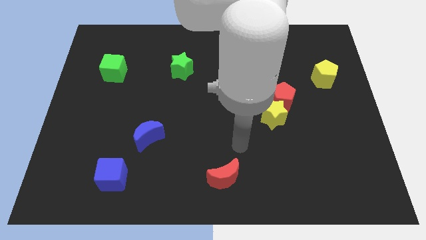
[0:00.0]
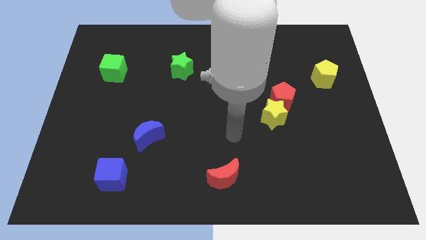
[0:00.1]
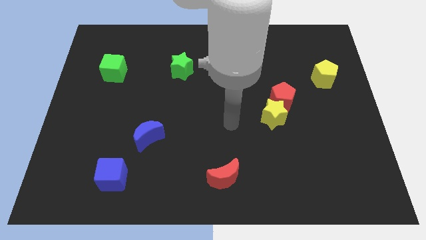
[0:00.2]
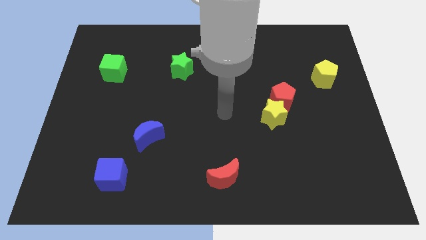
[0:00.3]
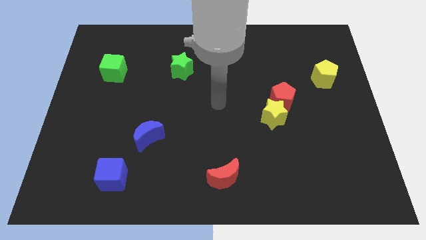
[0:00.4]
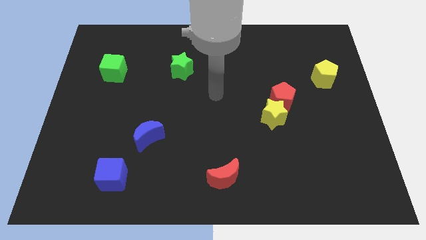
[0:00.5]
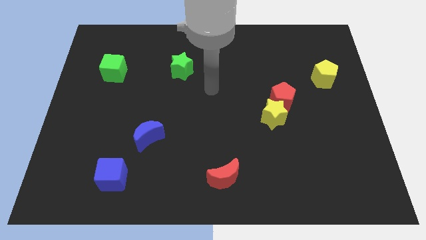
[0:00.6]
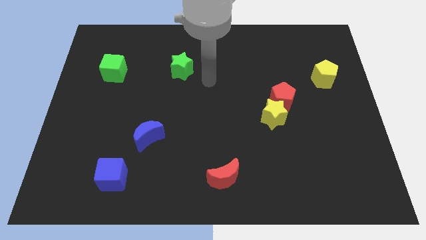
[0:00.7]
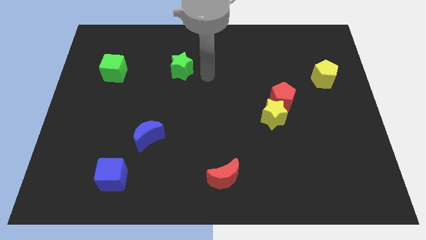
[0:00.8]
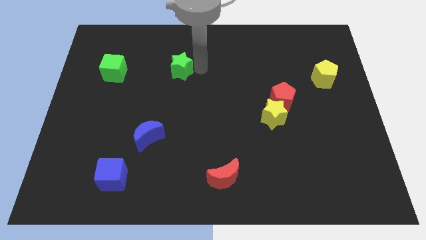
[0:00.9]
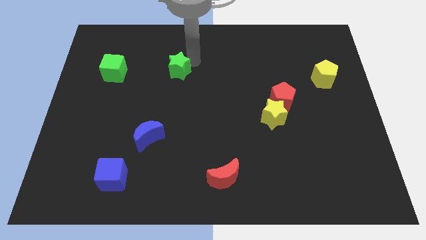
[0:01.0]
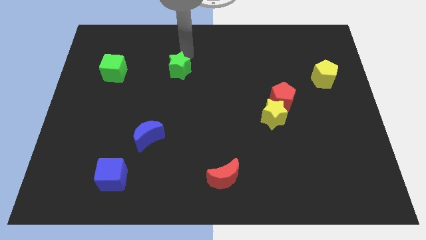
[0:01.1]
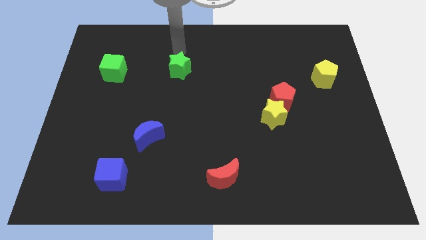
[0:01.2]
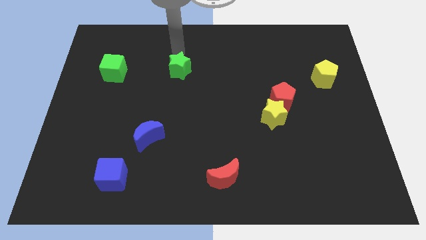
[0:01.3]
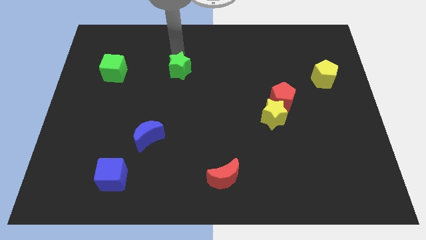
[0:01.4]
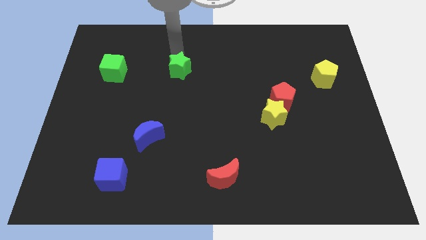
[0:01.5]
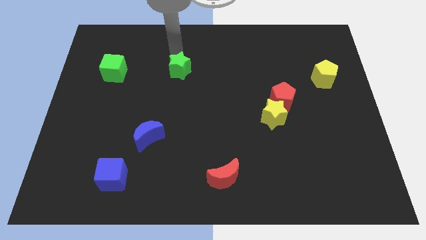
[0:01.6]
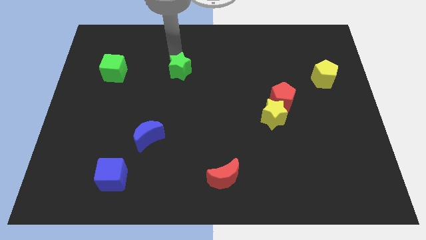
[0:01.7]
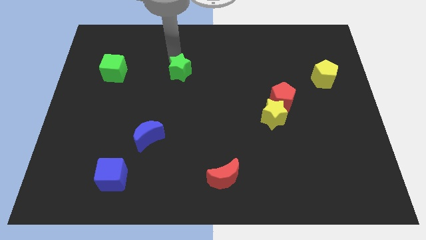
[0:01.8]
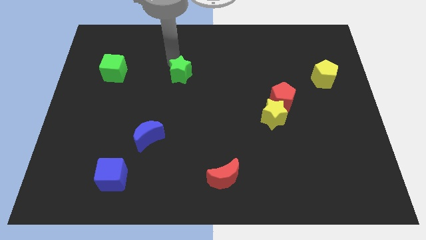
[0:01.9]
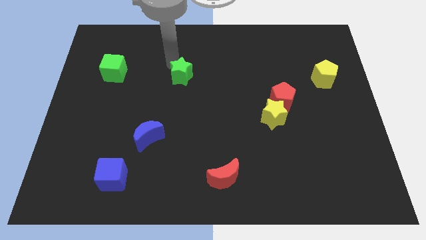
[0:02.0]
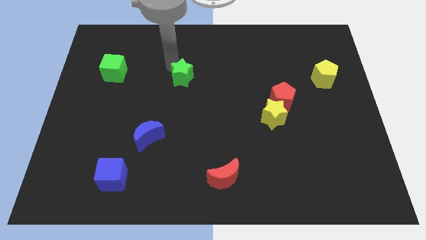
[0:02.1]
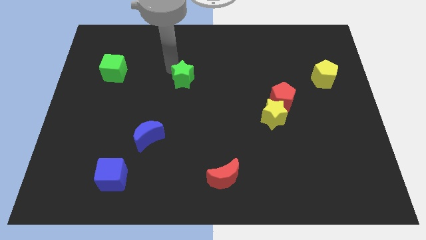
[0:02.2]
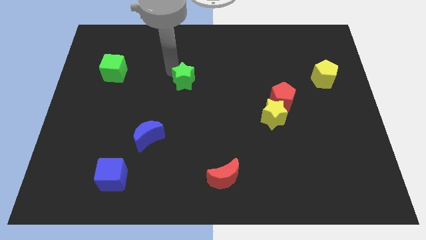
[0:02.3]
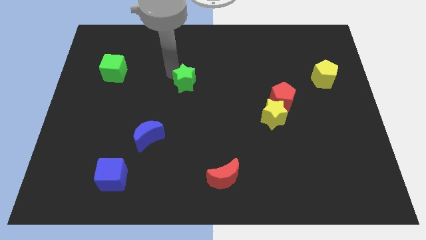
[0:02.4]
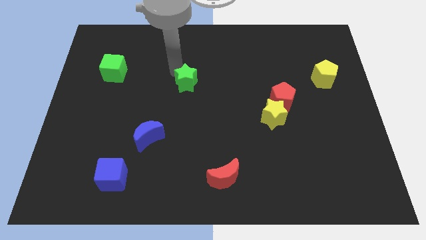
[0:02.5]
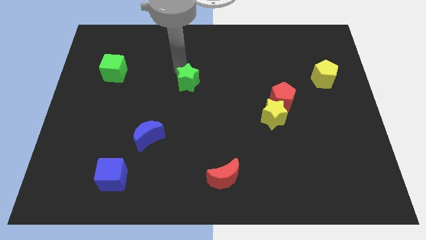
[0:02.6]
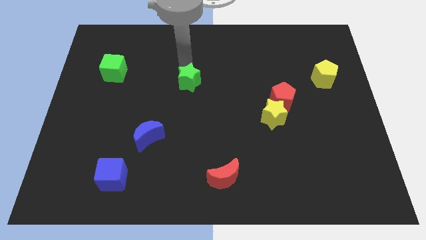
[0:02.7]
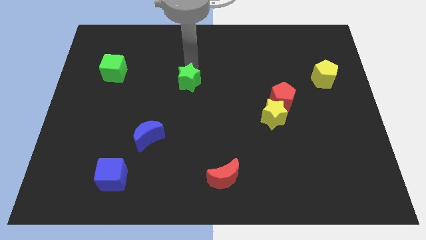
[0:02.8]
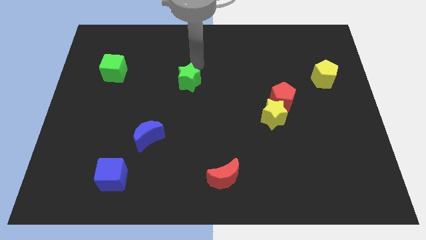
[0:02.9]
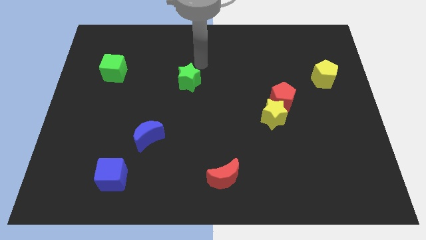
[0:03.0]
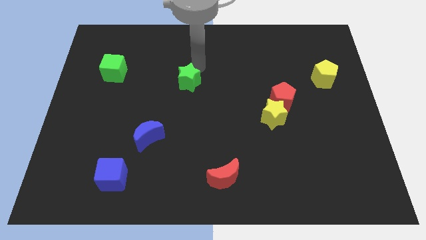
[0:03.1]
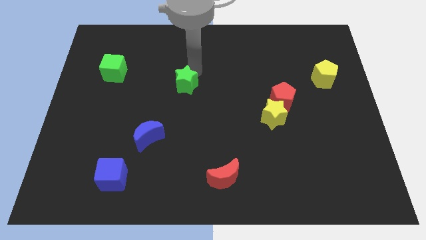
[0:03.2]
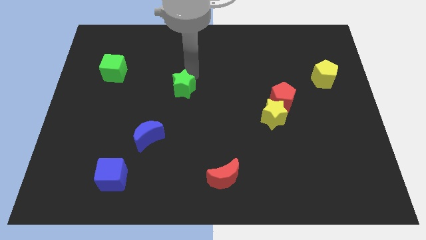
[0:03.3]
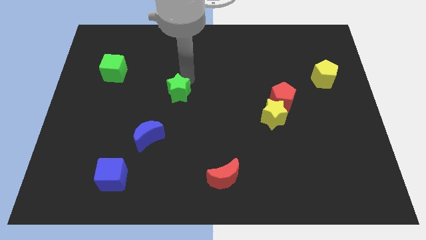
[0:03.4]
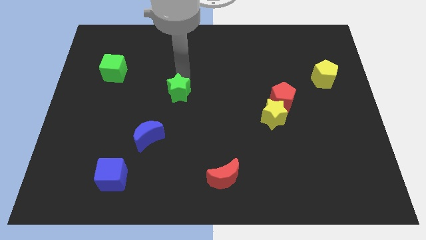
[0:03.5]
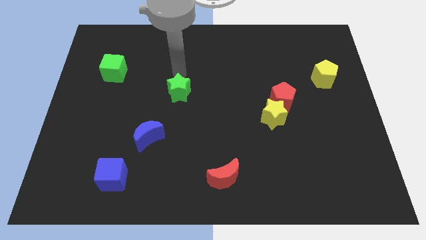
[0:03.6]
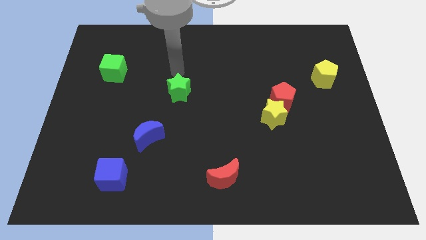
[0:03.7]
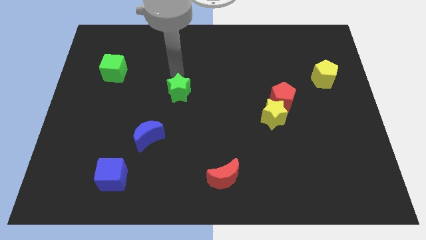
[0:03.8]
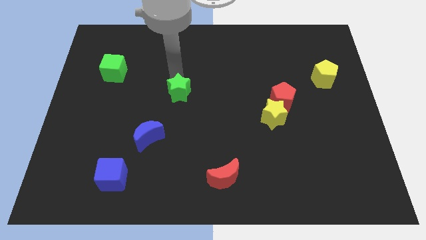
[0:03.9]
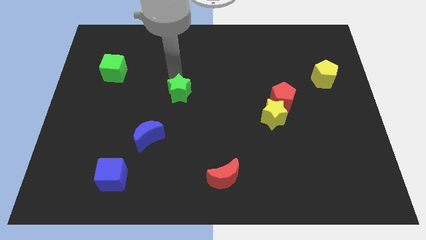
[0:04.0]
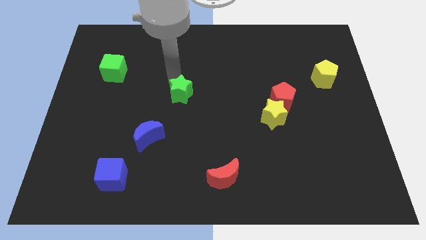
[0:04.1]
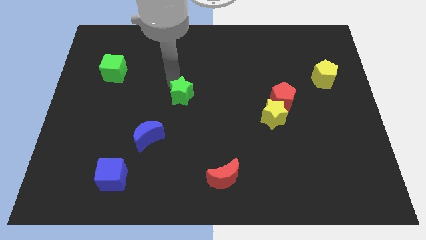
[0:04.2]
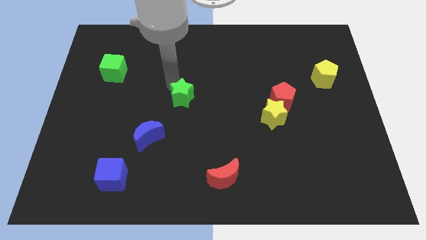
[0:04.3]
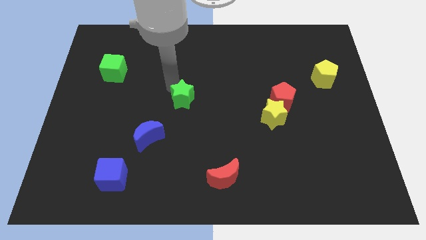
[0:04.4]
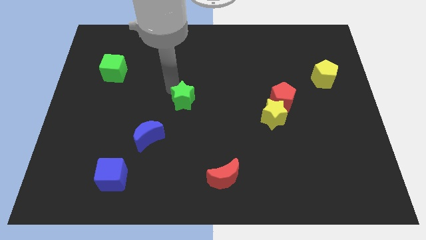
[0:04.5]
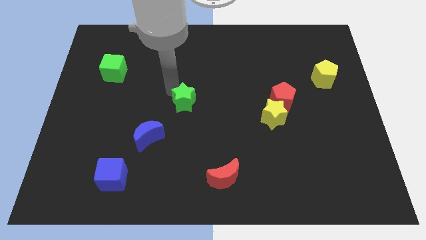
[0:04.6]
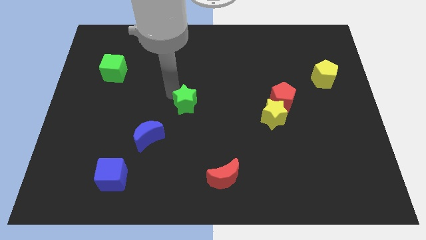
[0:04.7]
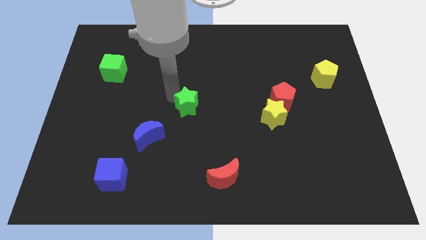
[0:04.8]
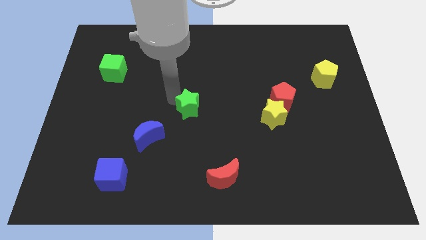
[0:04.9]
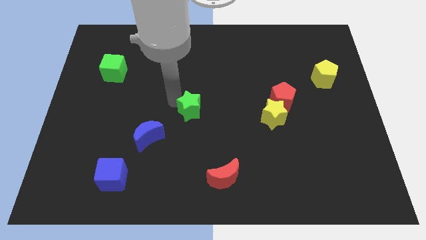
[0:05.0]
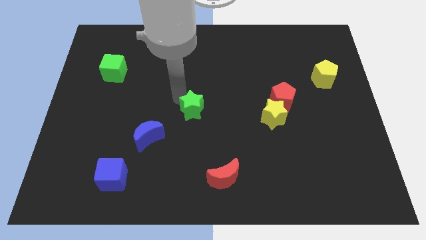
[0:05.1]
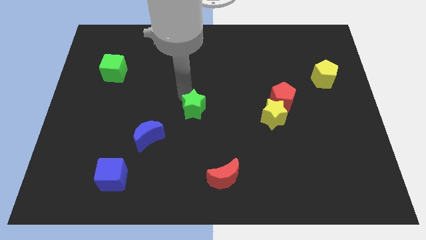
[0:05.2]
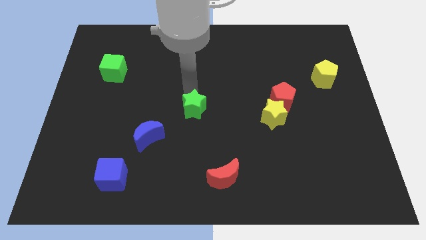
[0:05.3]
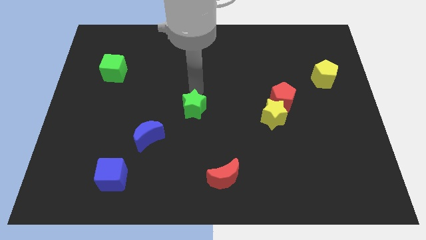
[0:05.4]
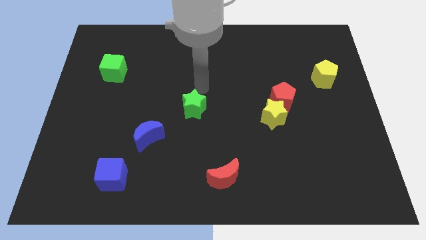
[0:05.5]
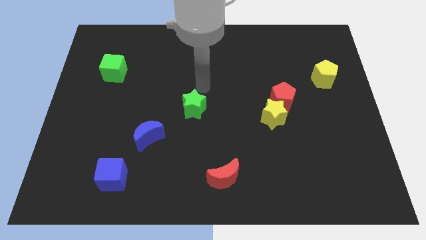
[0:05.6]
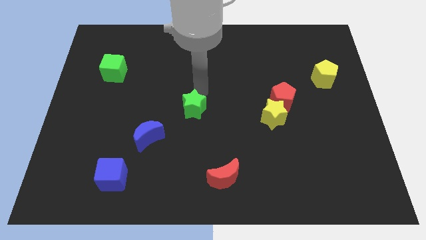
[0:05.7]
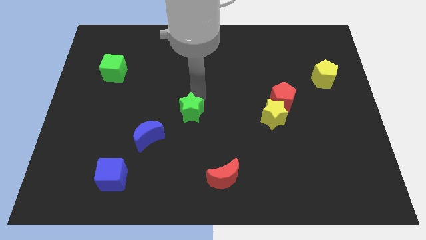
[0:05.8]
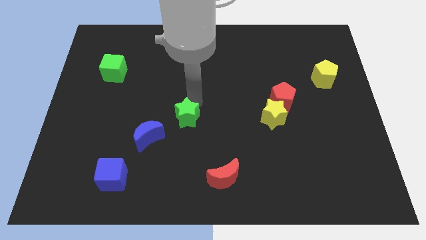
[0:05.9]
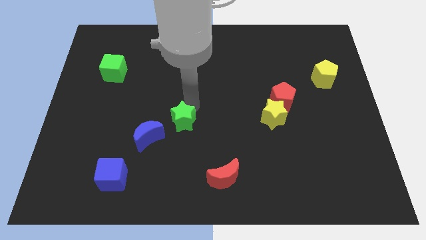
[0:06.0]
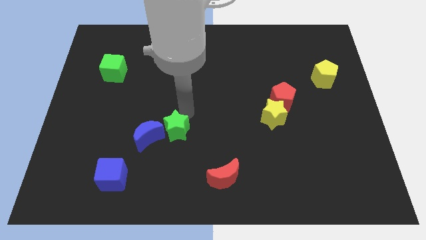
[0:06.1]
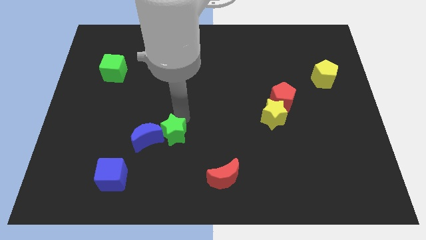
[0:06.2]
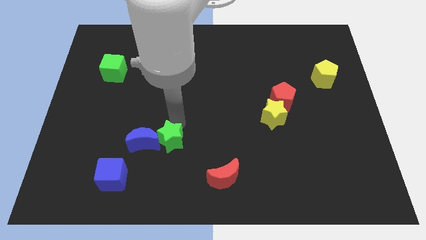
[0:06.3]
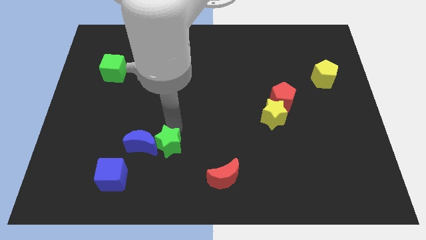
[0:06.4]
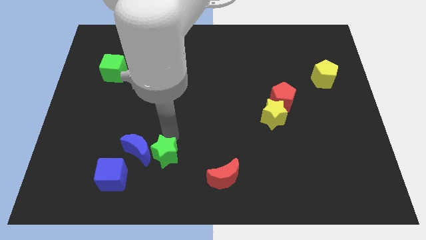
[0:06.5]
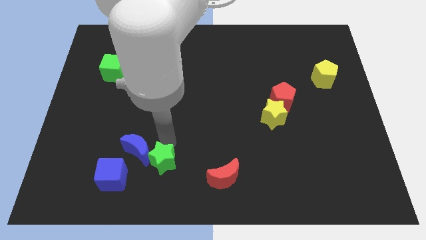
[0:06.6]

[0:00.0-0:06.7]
move the green star to the right side of the blue cube
